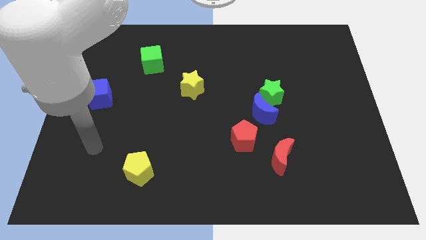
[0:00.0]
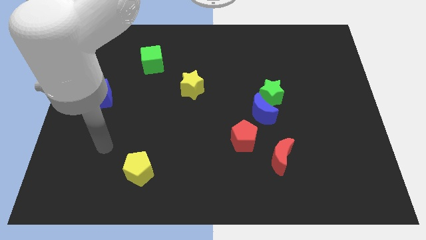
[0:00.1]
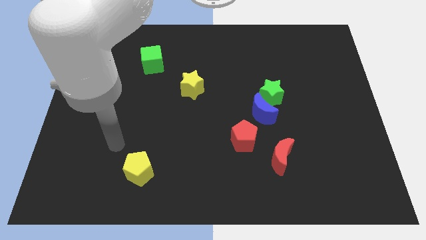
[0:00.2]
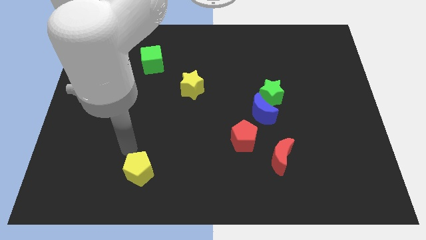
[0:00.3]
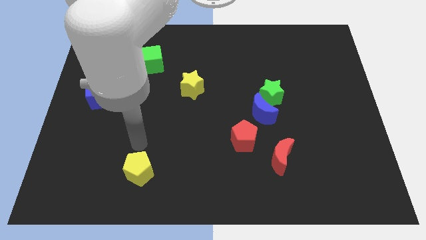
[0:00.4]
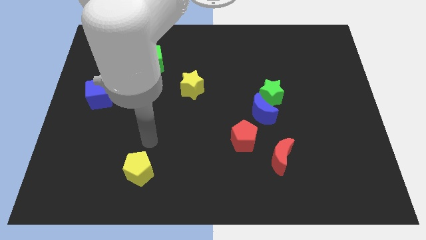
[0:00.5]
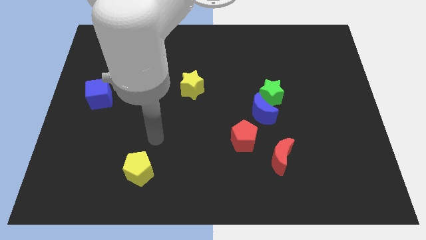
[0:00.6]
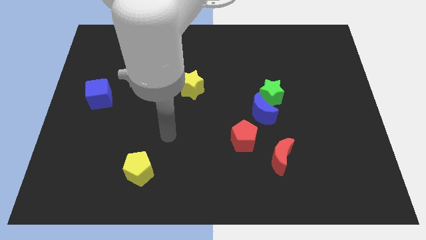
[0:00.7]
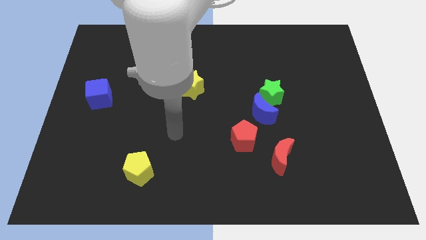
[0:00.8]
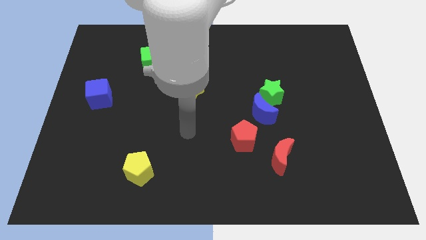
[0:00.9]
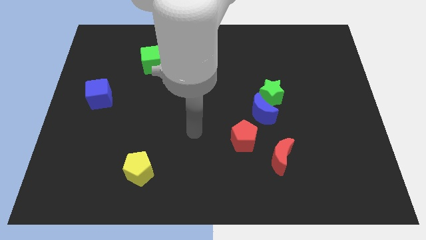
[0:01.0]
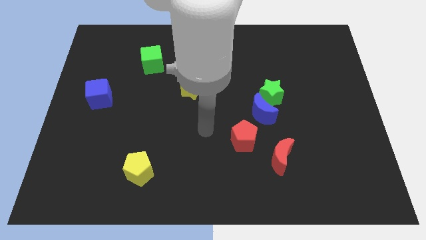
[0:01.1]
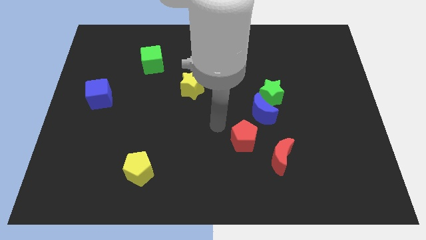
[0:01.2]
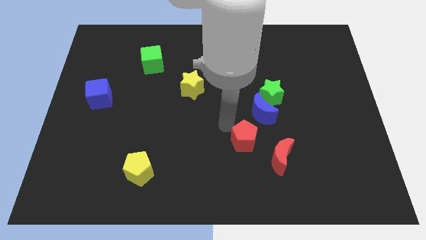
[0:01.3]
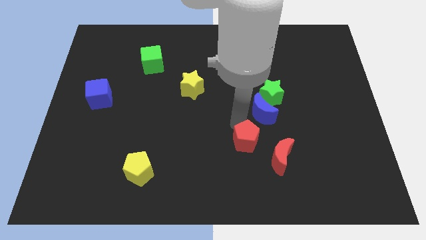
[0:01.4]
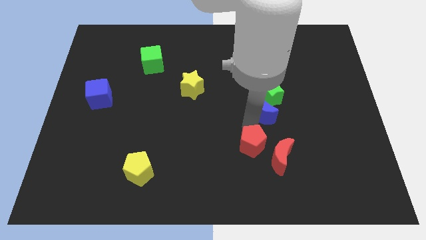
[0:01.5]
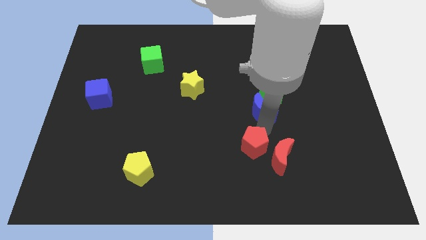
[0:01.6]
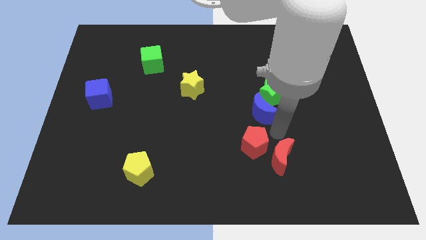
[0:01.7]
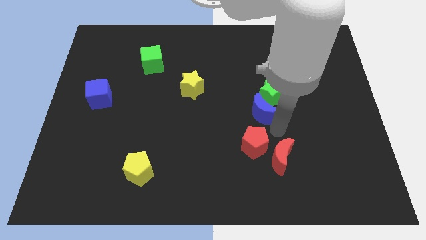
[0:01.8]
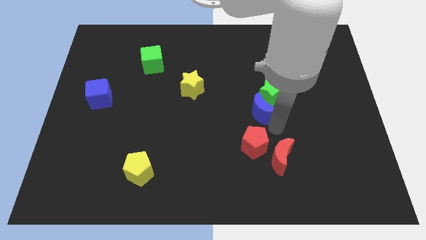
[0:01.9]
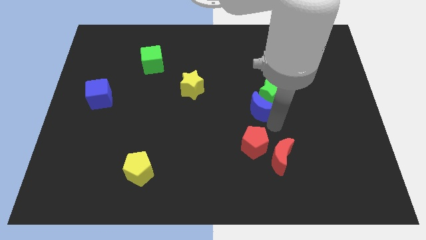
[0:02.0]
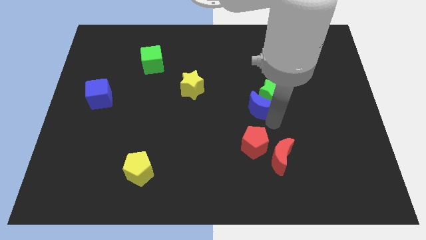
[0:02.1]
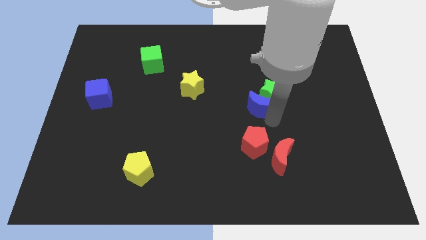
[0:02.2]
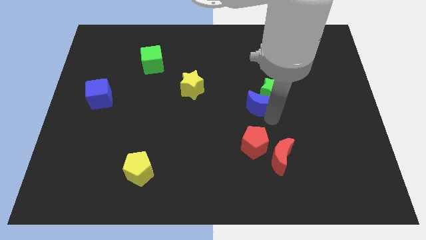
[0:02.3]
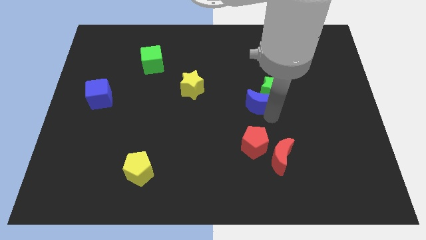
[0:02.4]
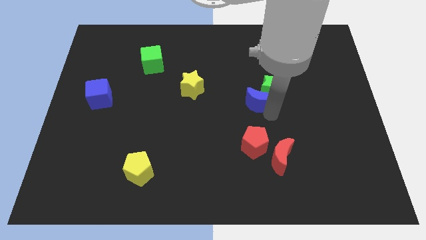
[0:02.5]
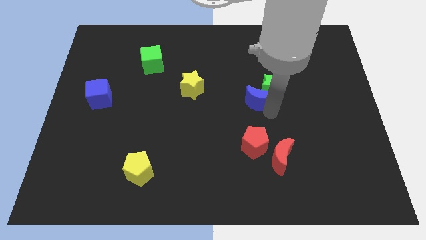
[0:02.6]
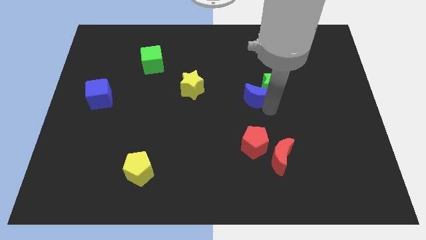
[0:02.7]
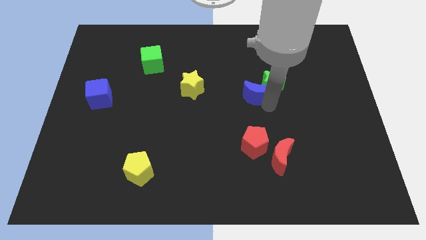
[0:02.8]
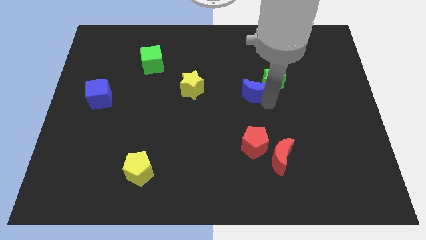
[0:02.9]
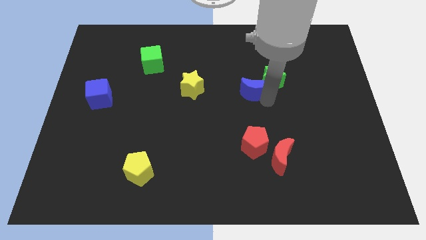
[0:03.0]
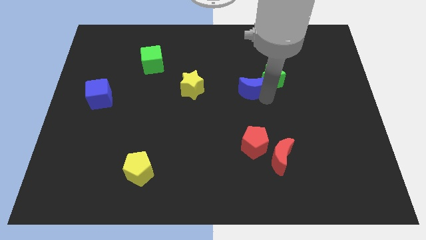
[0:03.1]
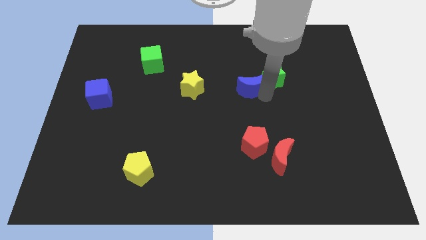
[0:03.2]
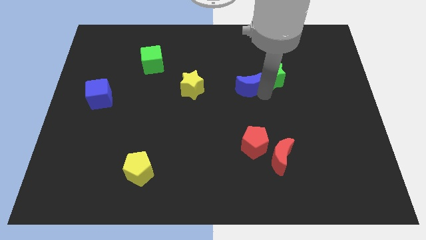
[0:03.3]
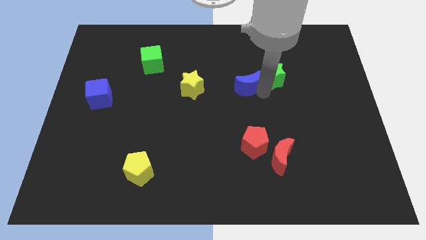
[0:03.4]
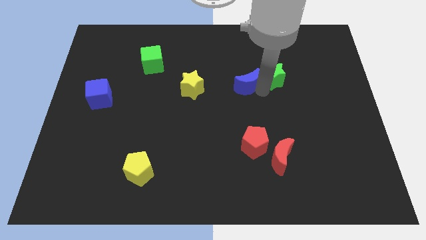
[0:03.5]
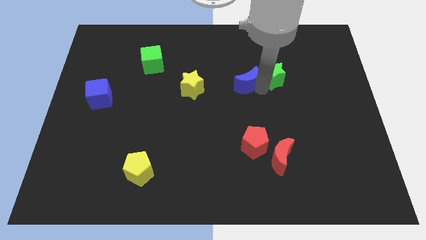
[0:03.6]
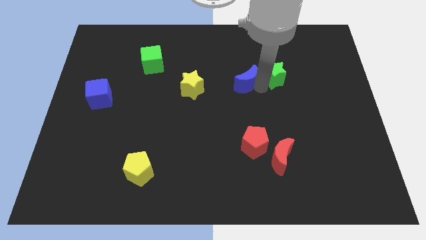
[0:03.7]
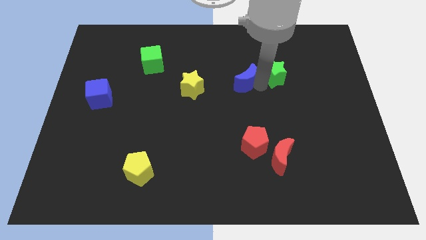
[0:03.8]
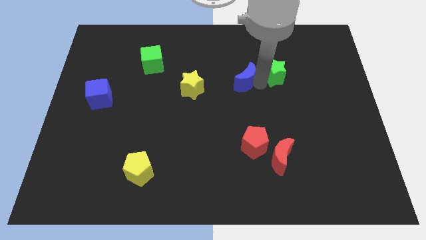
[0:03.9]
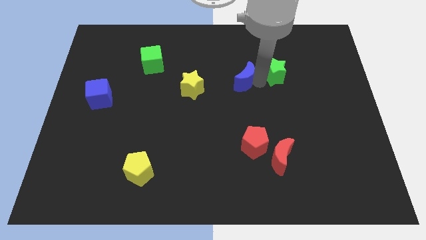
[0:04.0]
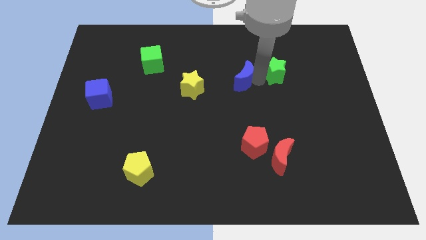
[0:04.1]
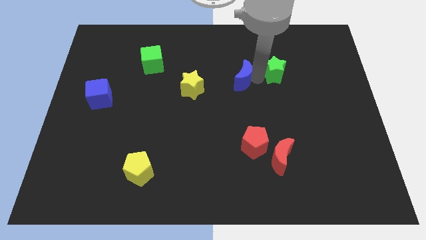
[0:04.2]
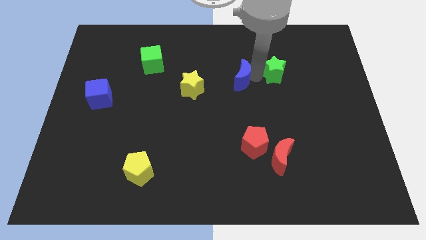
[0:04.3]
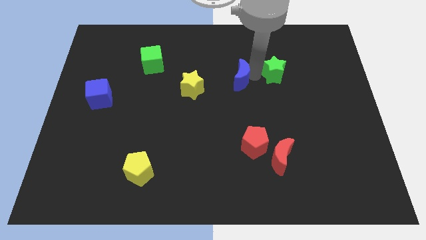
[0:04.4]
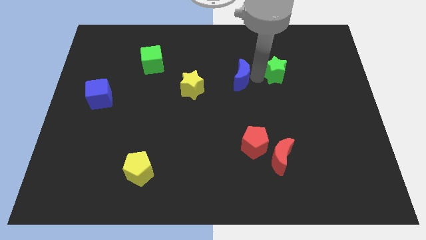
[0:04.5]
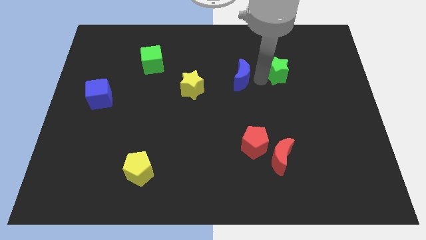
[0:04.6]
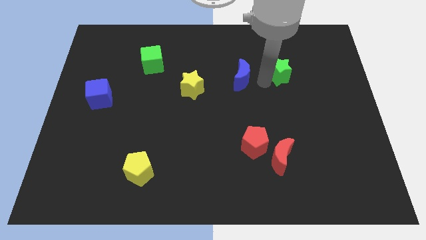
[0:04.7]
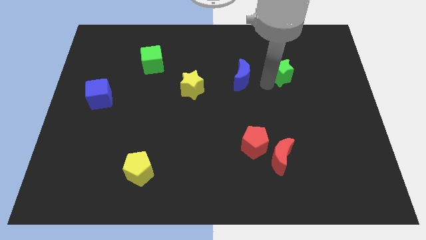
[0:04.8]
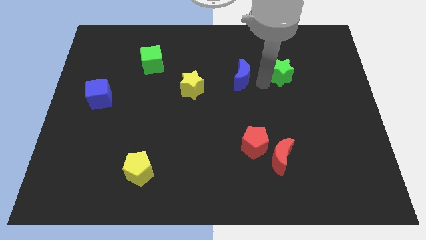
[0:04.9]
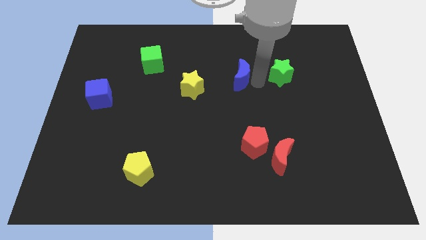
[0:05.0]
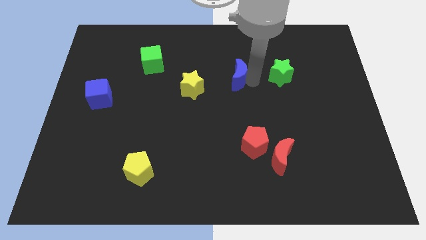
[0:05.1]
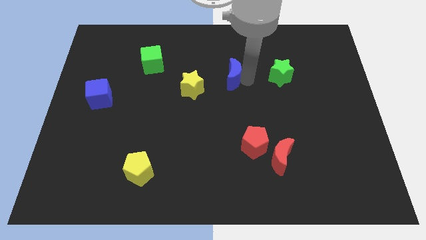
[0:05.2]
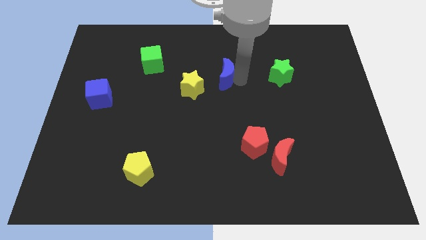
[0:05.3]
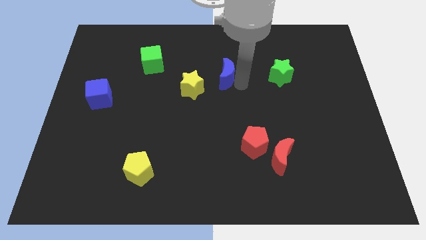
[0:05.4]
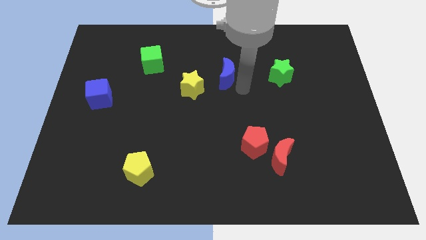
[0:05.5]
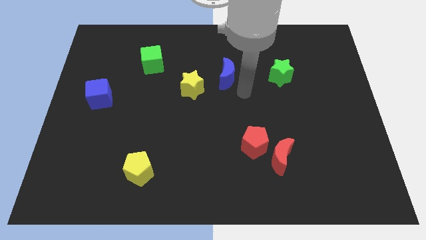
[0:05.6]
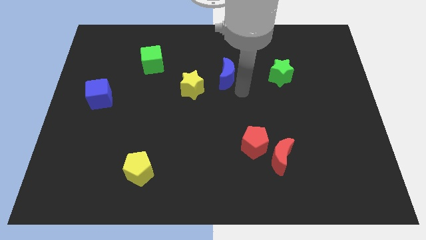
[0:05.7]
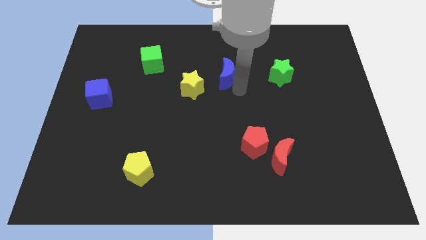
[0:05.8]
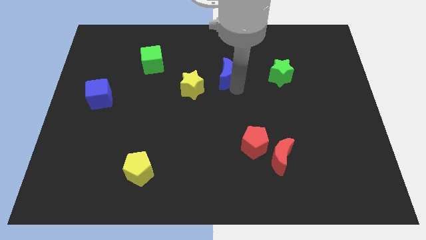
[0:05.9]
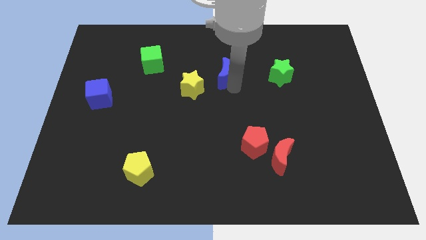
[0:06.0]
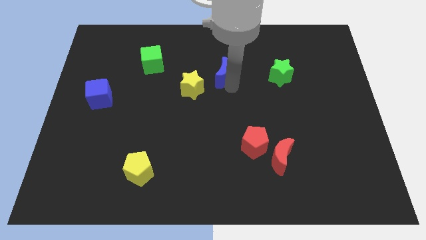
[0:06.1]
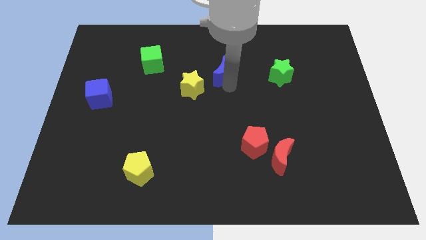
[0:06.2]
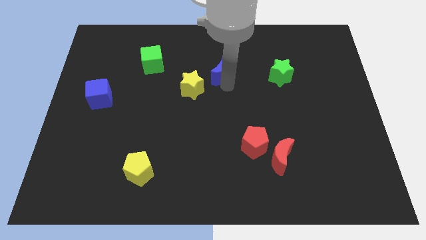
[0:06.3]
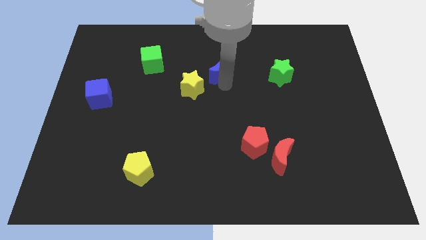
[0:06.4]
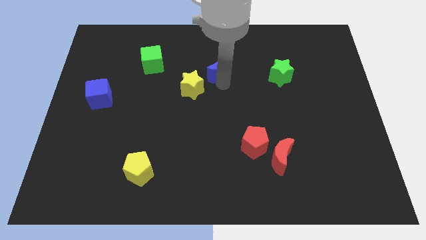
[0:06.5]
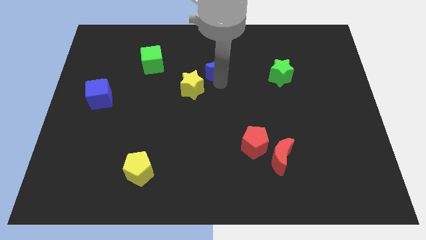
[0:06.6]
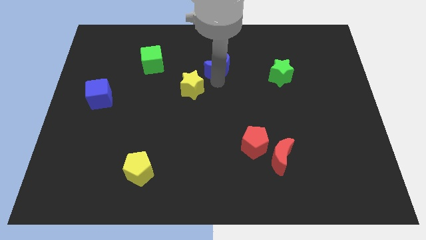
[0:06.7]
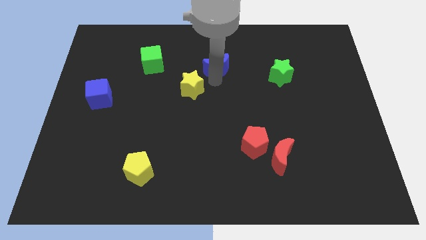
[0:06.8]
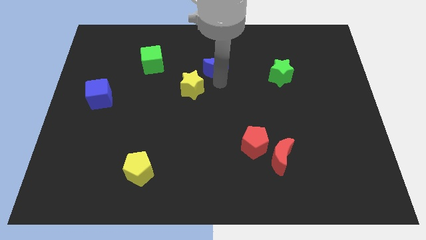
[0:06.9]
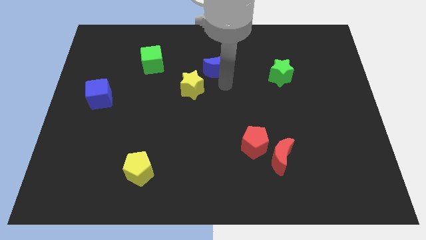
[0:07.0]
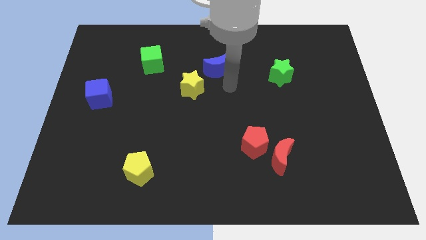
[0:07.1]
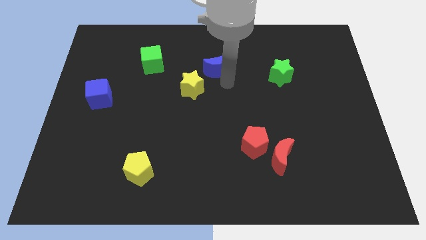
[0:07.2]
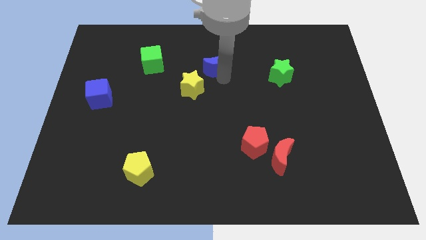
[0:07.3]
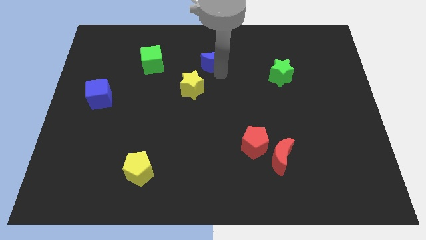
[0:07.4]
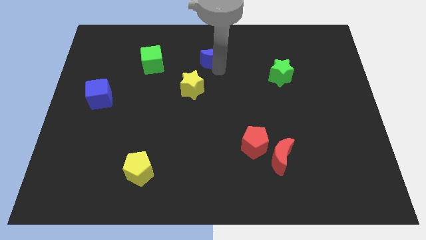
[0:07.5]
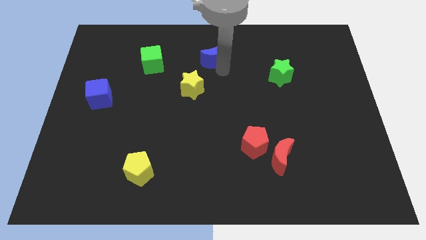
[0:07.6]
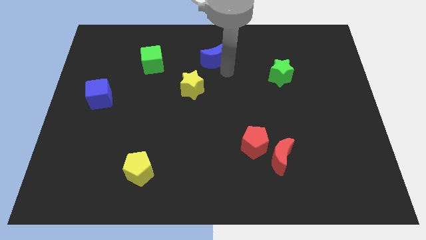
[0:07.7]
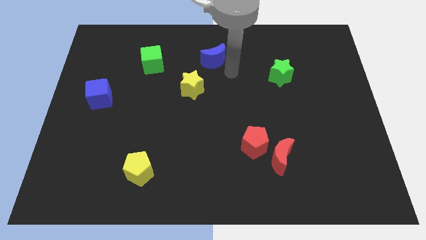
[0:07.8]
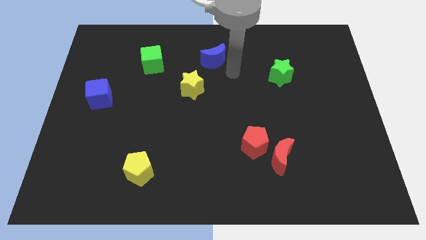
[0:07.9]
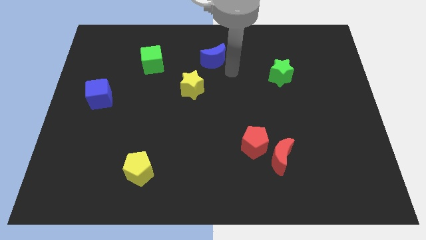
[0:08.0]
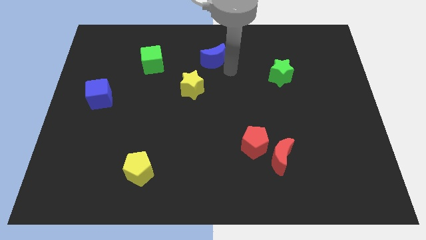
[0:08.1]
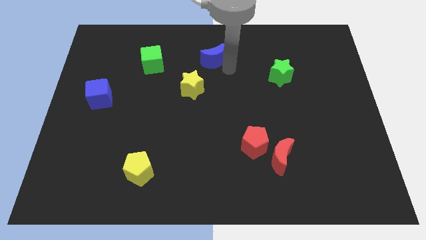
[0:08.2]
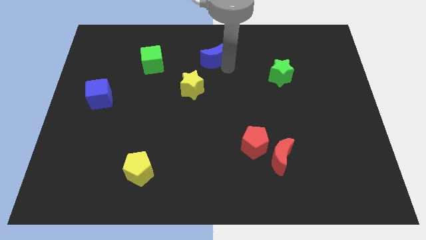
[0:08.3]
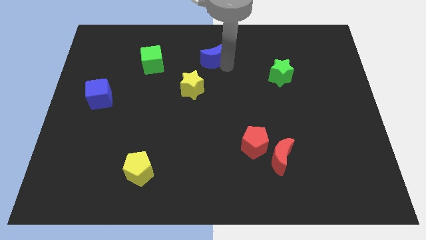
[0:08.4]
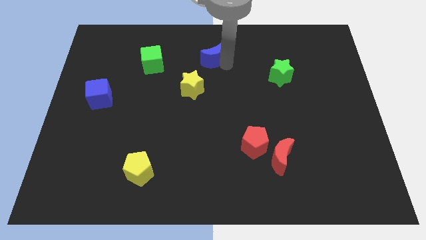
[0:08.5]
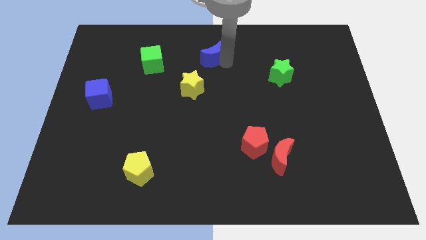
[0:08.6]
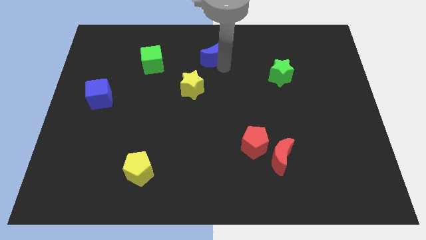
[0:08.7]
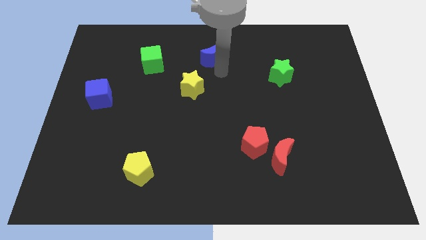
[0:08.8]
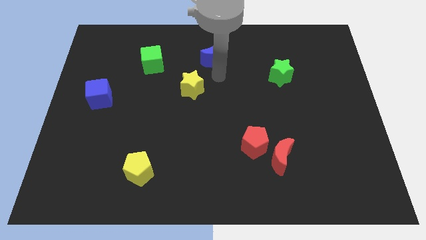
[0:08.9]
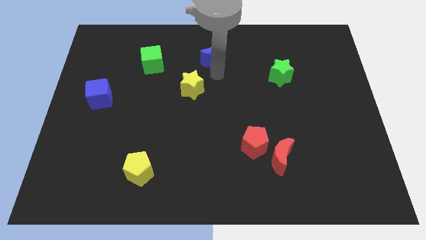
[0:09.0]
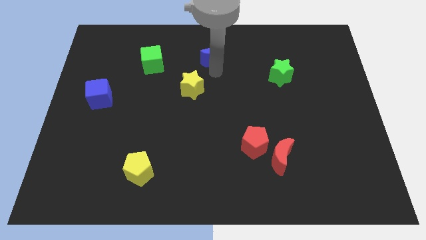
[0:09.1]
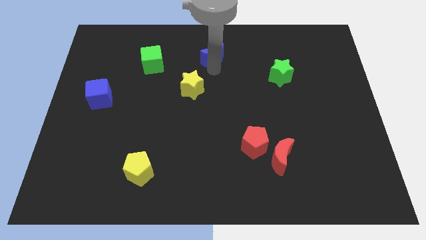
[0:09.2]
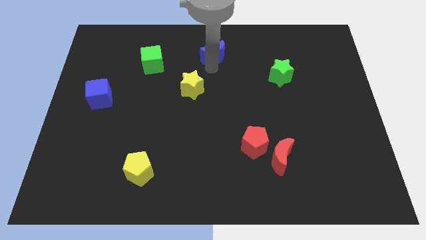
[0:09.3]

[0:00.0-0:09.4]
move the blue moon to the top
